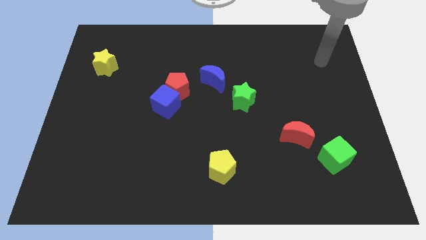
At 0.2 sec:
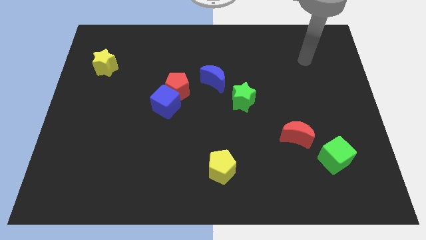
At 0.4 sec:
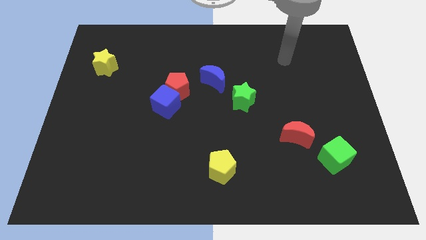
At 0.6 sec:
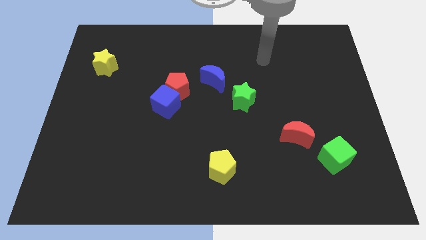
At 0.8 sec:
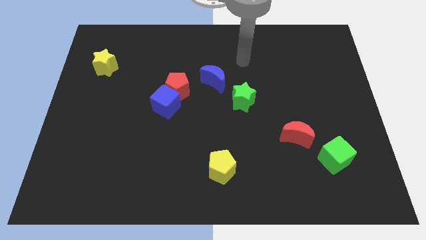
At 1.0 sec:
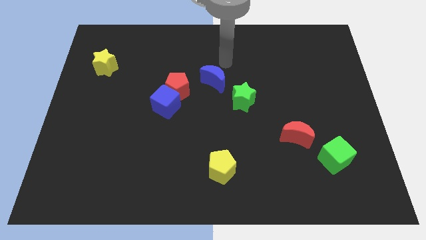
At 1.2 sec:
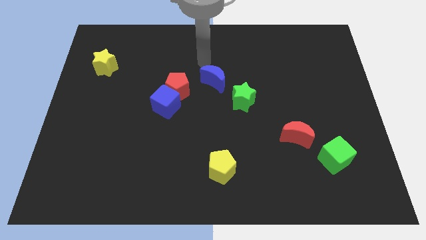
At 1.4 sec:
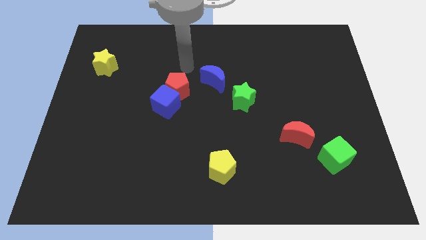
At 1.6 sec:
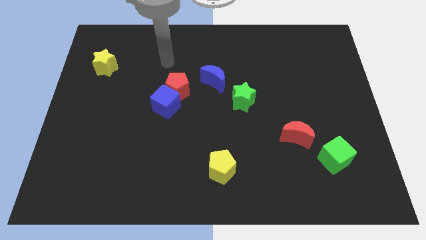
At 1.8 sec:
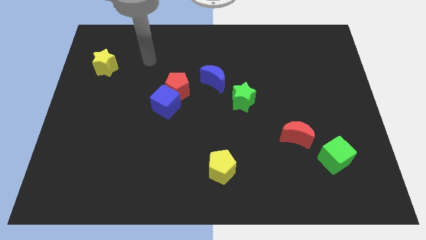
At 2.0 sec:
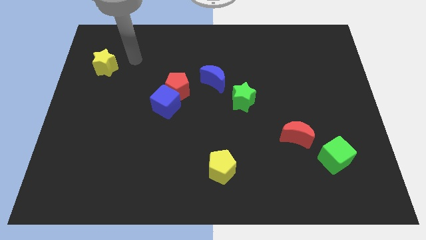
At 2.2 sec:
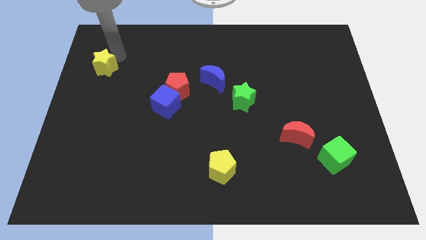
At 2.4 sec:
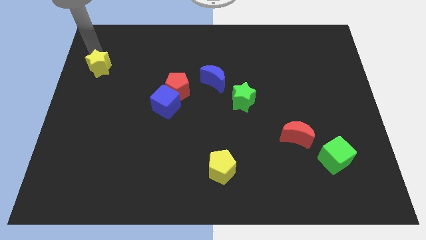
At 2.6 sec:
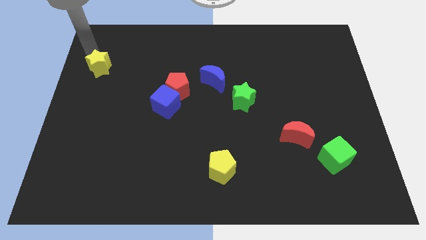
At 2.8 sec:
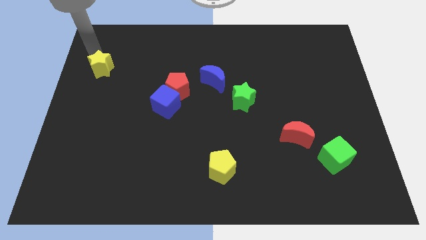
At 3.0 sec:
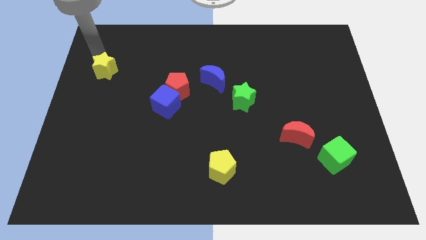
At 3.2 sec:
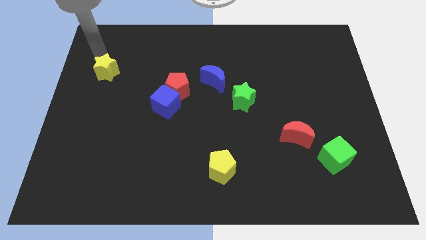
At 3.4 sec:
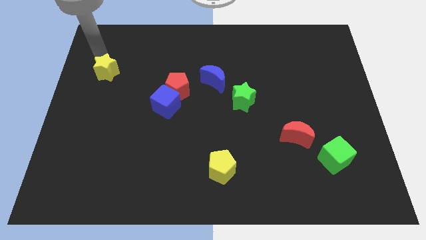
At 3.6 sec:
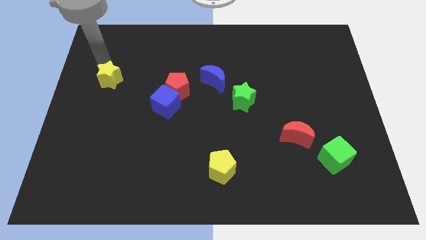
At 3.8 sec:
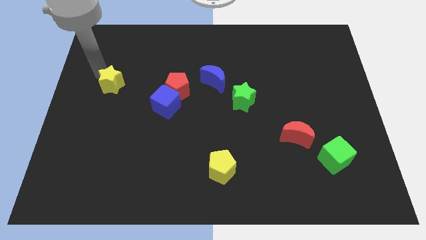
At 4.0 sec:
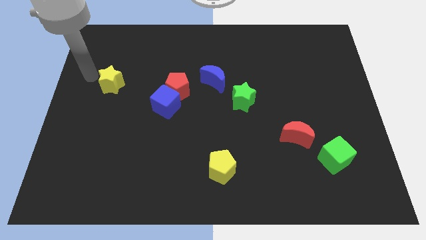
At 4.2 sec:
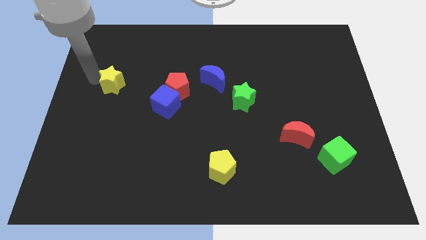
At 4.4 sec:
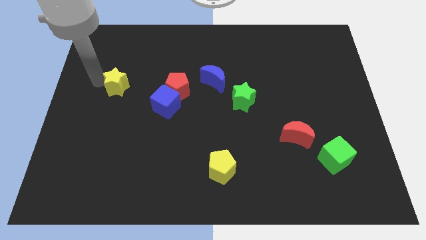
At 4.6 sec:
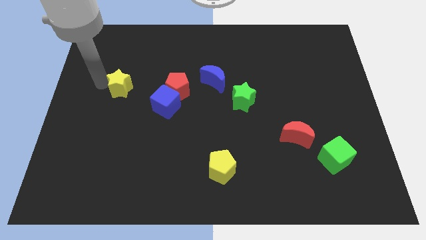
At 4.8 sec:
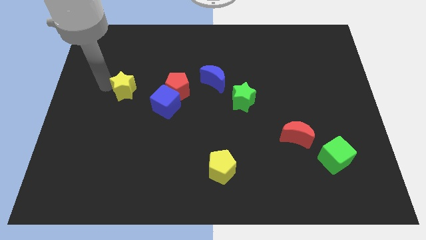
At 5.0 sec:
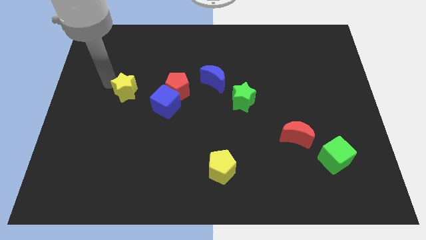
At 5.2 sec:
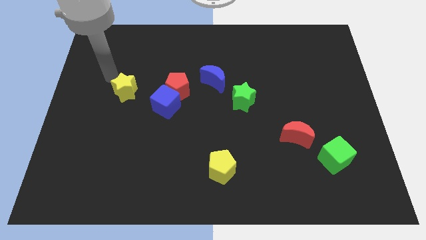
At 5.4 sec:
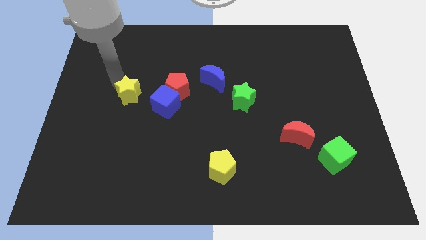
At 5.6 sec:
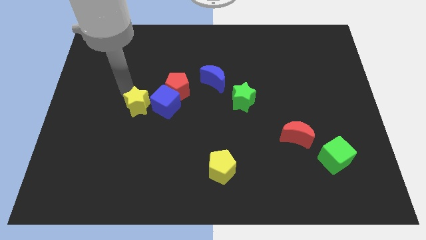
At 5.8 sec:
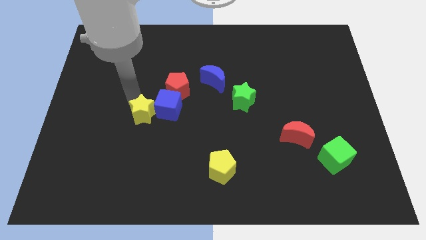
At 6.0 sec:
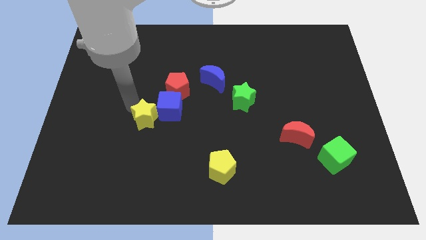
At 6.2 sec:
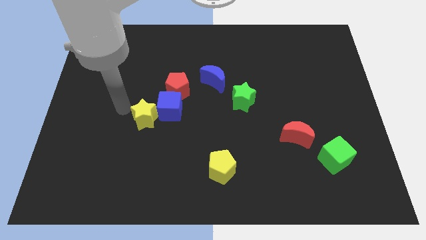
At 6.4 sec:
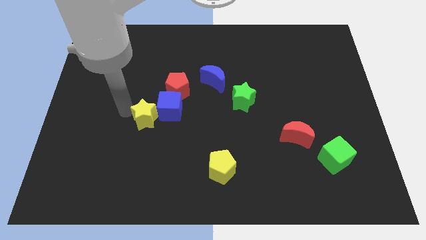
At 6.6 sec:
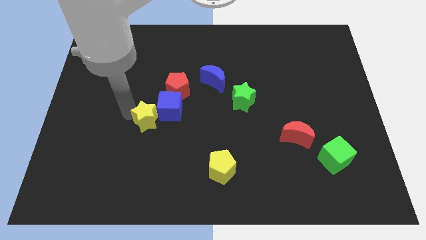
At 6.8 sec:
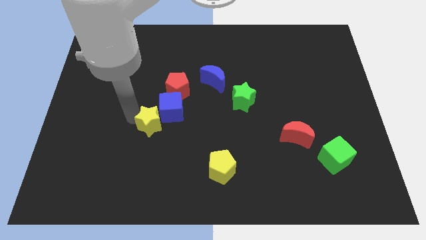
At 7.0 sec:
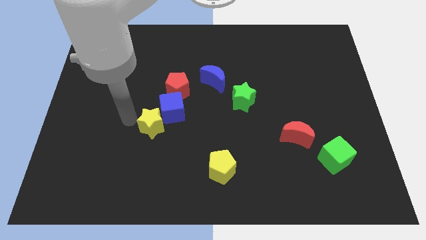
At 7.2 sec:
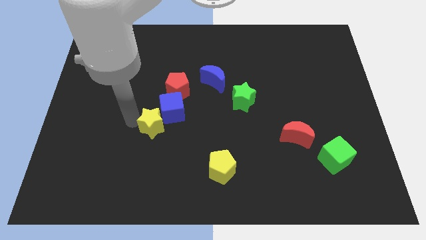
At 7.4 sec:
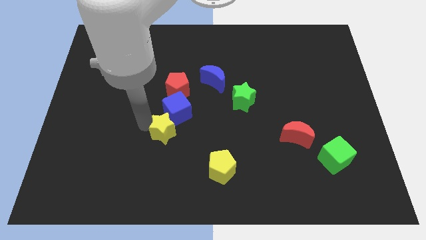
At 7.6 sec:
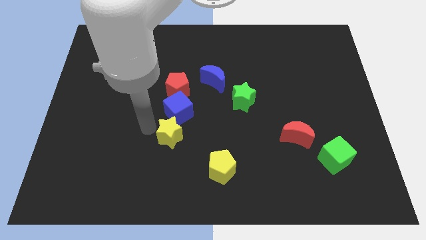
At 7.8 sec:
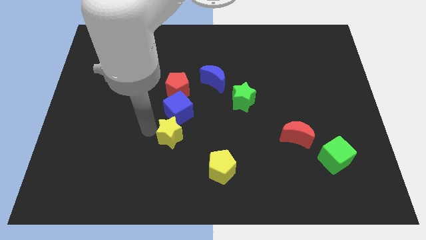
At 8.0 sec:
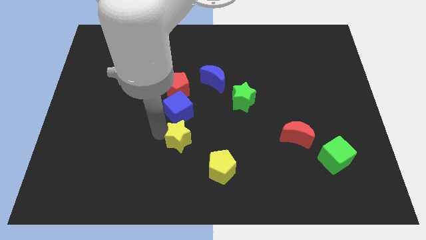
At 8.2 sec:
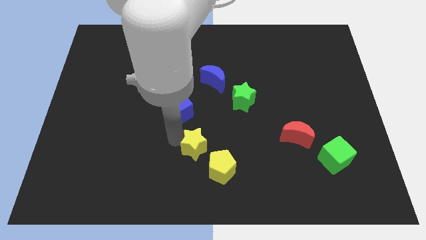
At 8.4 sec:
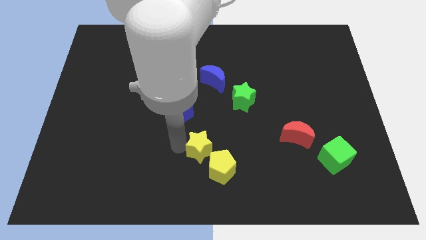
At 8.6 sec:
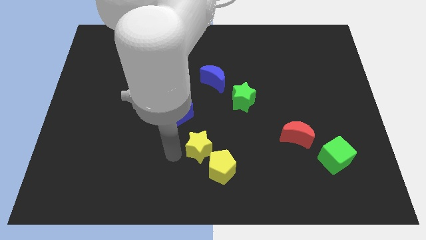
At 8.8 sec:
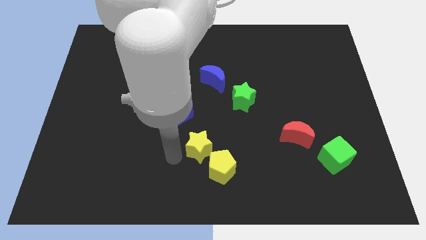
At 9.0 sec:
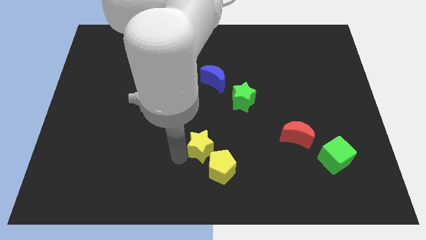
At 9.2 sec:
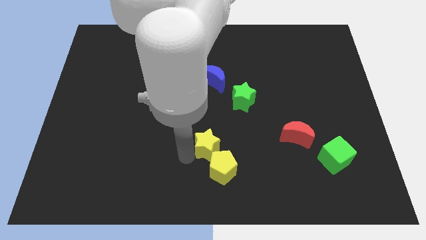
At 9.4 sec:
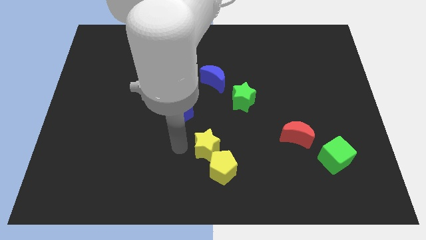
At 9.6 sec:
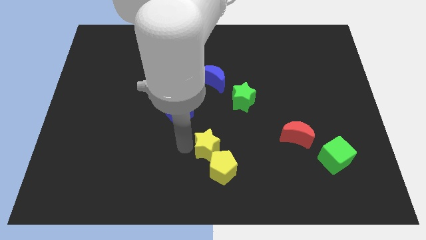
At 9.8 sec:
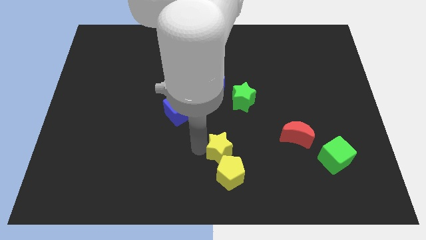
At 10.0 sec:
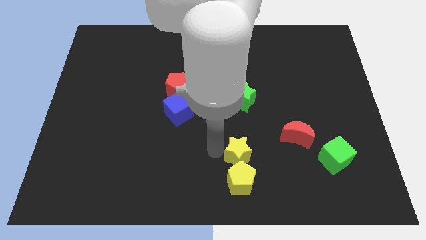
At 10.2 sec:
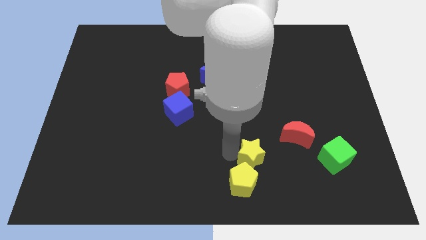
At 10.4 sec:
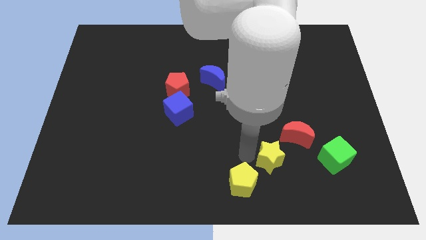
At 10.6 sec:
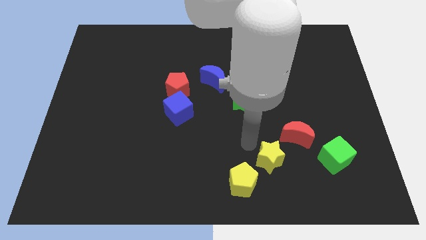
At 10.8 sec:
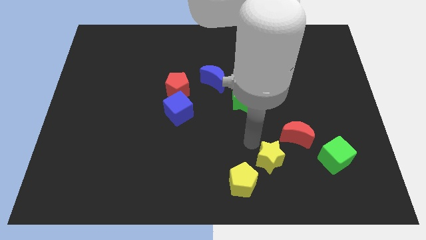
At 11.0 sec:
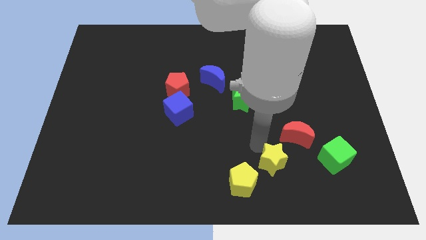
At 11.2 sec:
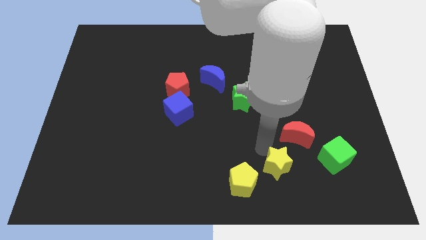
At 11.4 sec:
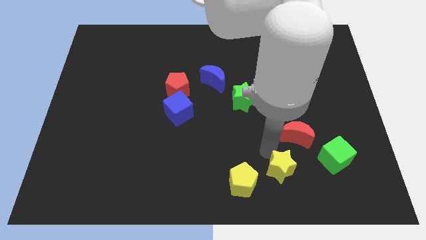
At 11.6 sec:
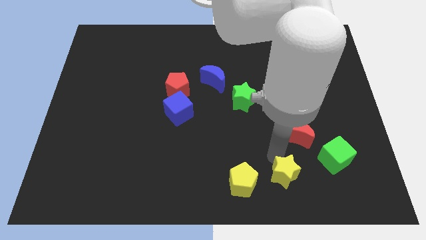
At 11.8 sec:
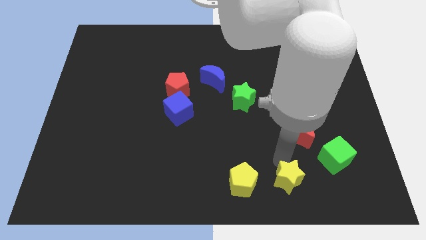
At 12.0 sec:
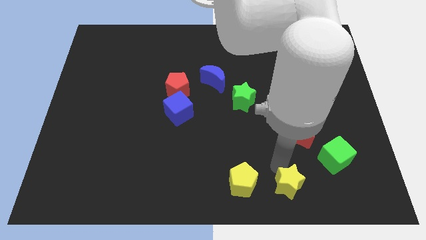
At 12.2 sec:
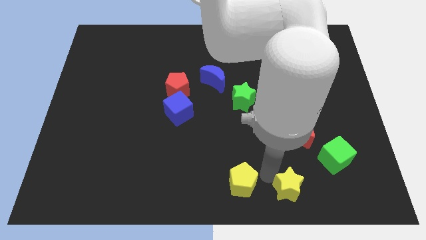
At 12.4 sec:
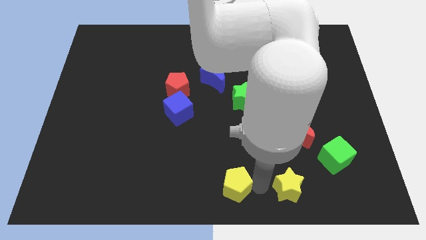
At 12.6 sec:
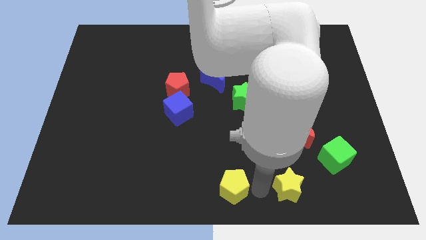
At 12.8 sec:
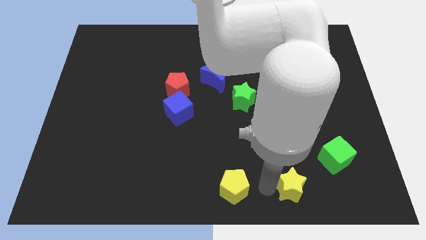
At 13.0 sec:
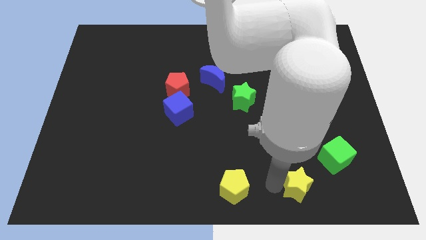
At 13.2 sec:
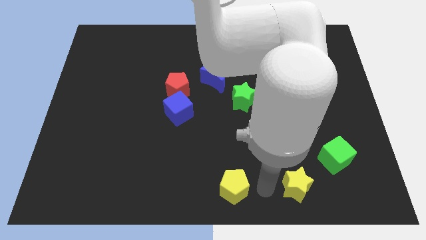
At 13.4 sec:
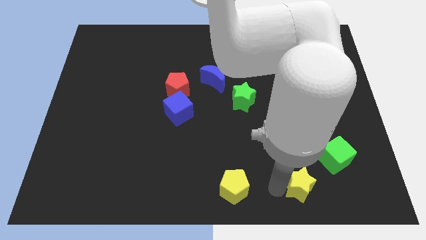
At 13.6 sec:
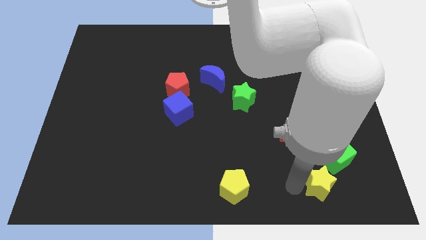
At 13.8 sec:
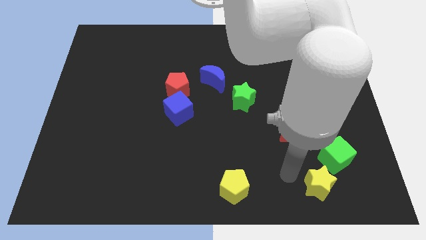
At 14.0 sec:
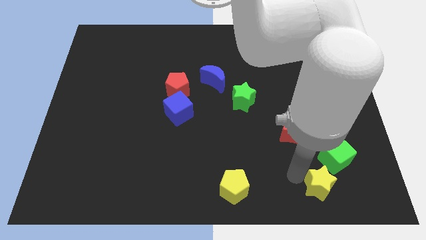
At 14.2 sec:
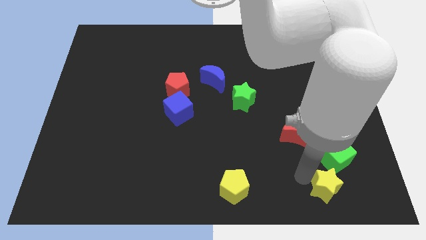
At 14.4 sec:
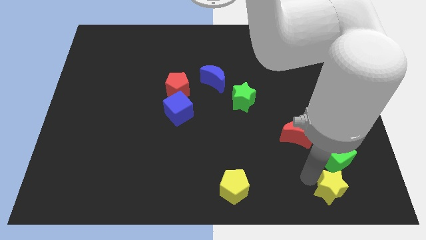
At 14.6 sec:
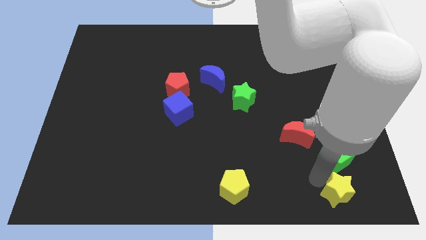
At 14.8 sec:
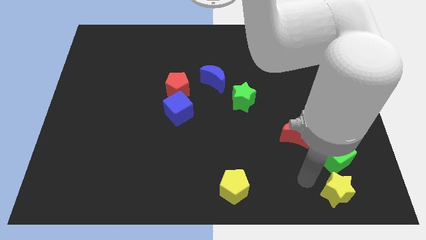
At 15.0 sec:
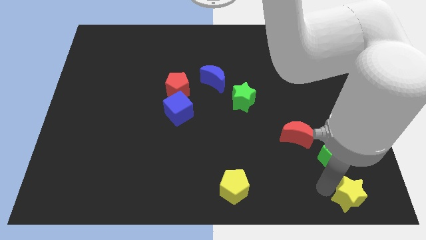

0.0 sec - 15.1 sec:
push the yellow star to the bottom right of the board

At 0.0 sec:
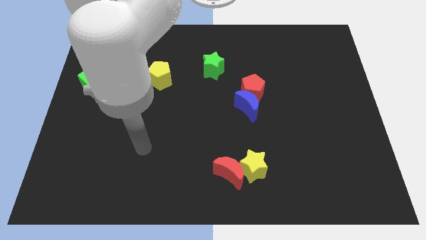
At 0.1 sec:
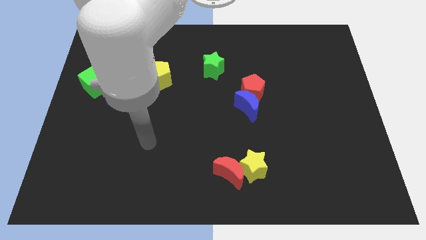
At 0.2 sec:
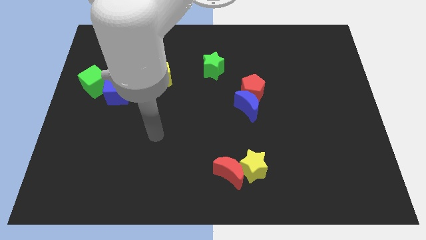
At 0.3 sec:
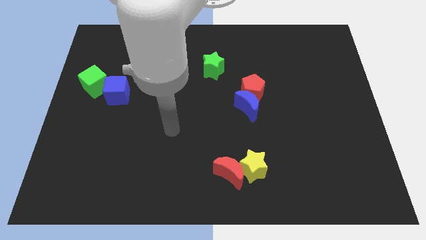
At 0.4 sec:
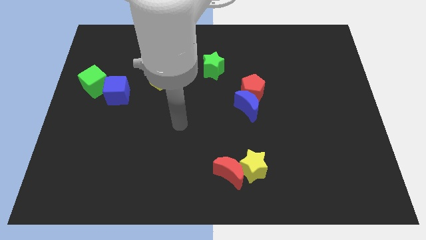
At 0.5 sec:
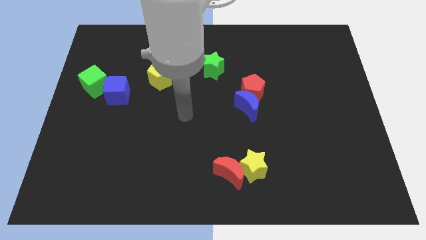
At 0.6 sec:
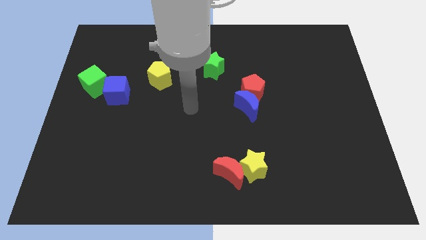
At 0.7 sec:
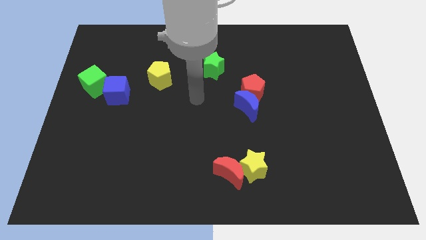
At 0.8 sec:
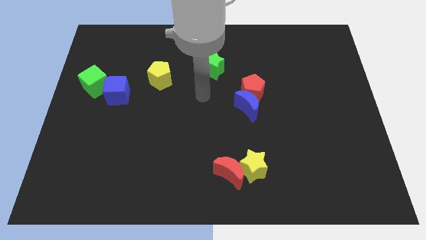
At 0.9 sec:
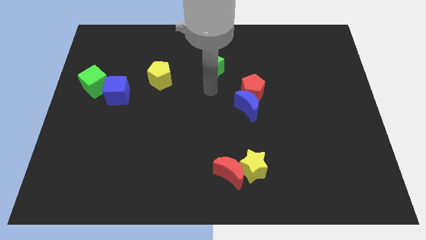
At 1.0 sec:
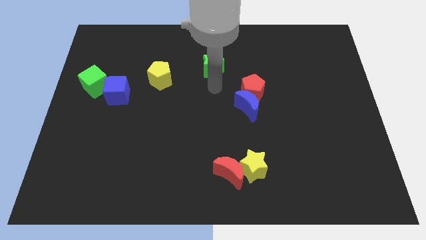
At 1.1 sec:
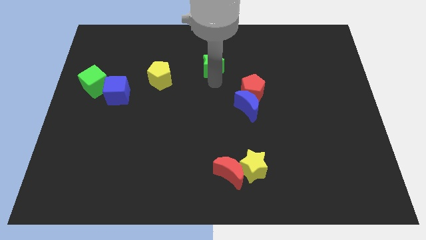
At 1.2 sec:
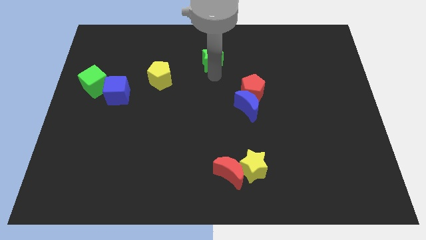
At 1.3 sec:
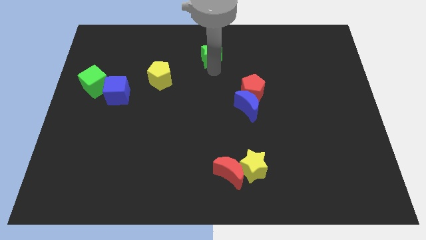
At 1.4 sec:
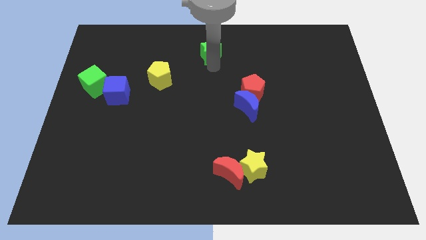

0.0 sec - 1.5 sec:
put the green star to the towards your base
